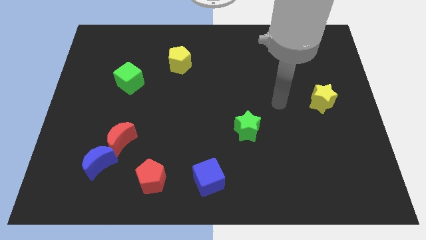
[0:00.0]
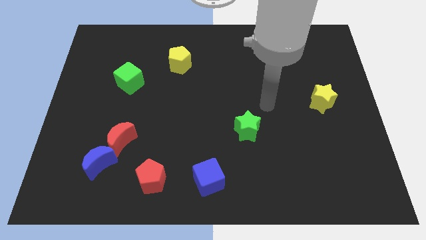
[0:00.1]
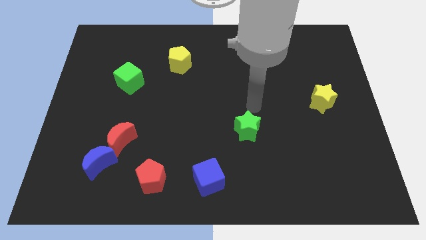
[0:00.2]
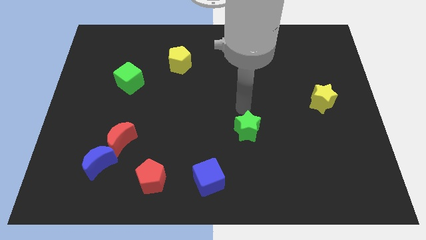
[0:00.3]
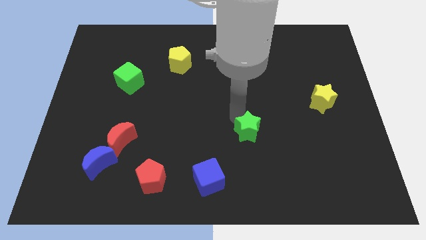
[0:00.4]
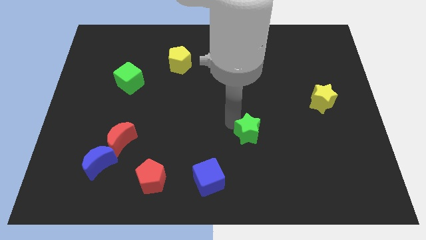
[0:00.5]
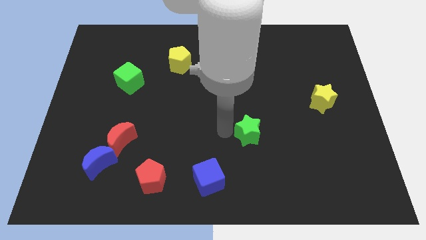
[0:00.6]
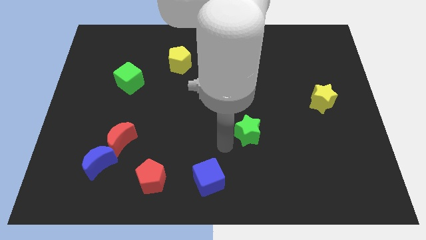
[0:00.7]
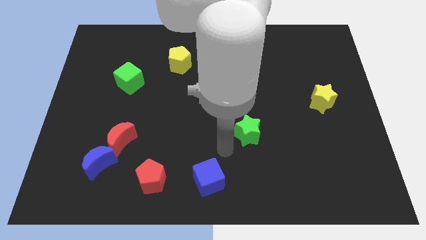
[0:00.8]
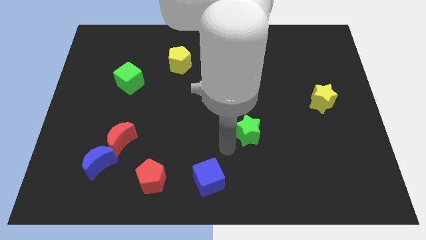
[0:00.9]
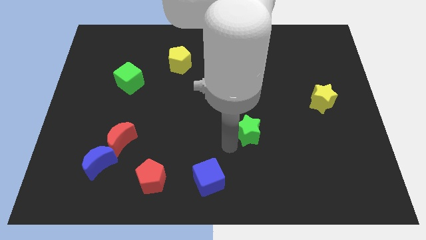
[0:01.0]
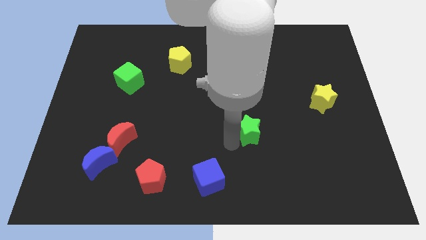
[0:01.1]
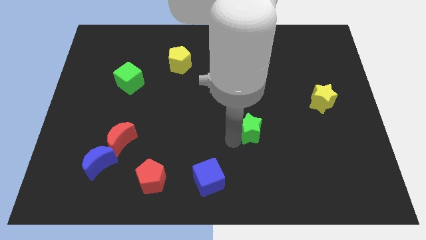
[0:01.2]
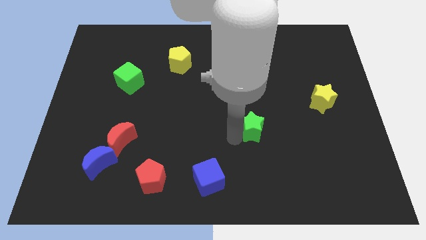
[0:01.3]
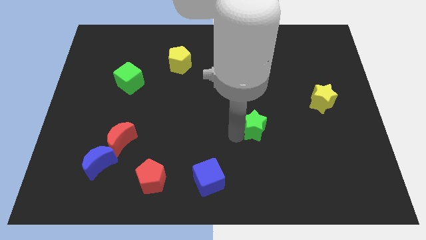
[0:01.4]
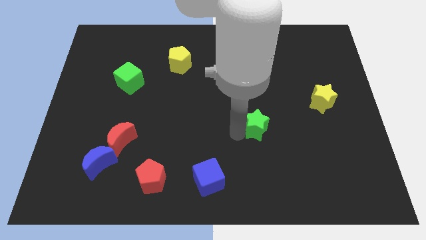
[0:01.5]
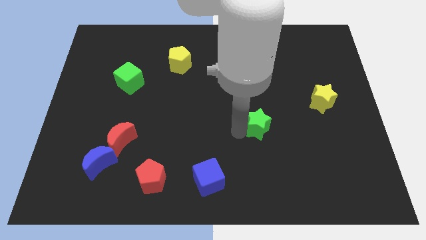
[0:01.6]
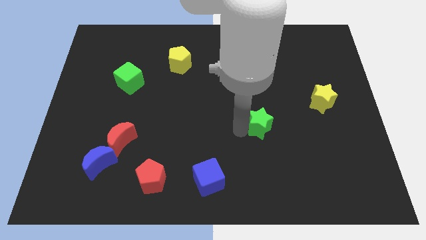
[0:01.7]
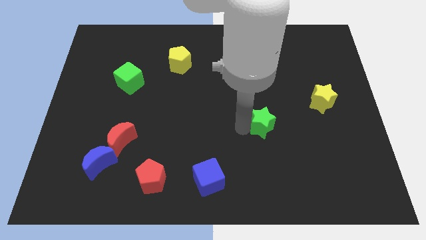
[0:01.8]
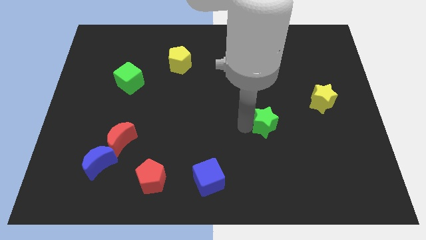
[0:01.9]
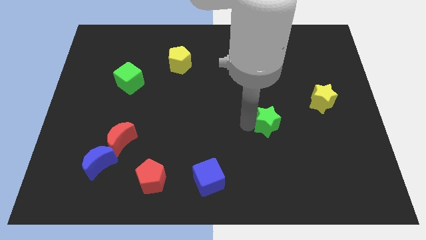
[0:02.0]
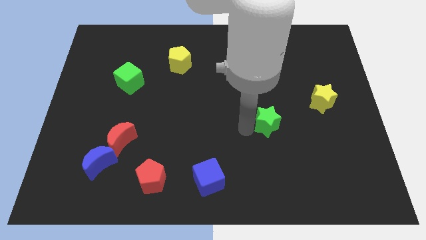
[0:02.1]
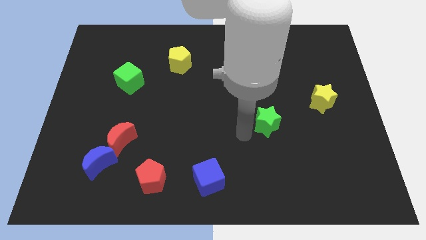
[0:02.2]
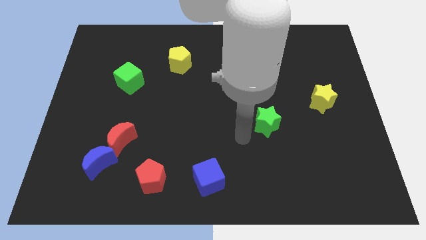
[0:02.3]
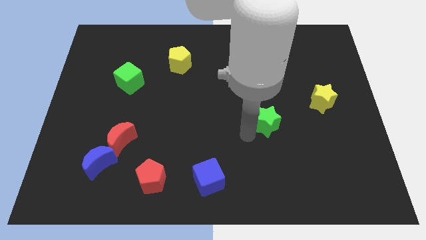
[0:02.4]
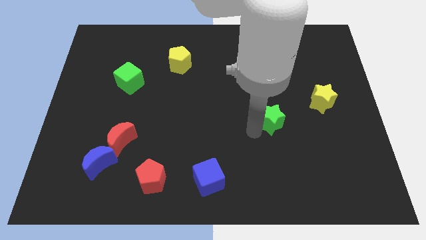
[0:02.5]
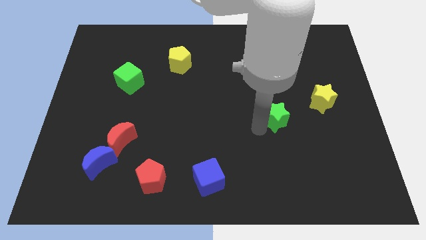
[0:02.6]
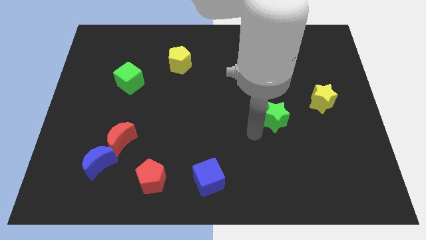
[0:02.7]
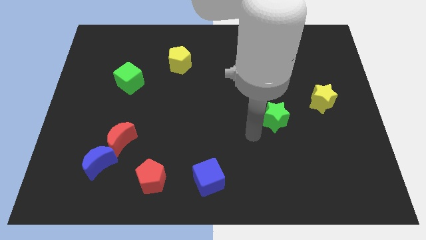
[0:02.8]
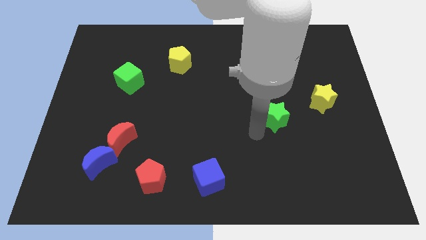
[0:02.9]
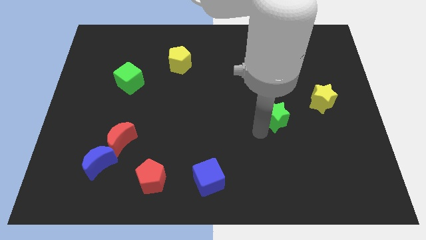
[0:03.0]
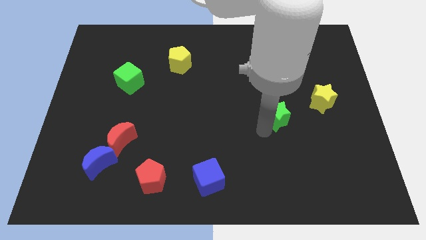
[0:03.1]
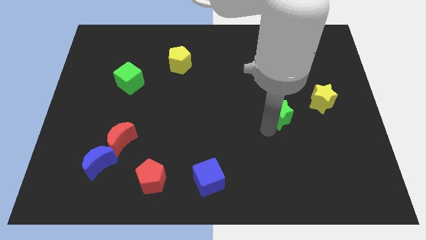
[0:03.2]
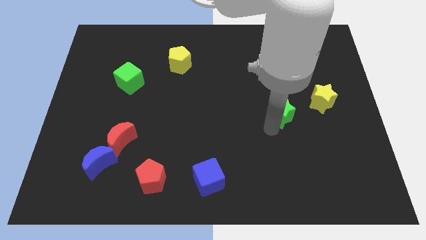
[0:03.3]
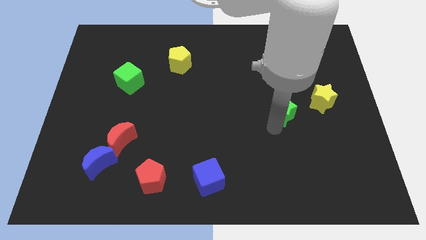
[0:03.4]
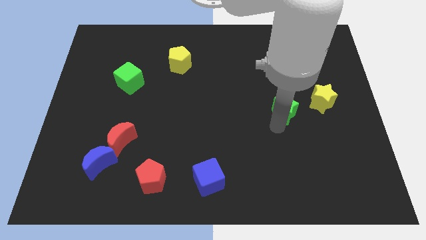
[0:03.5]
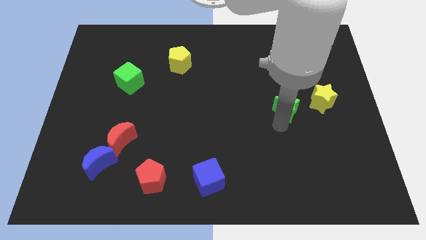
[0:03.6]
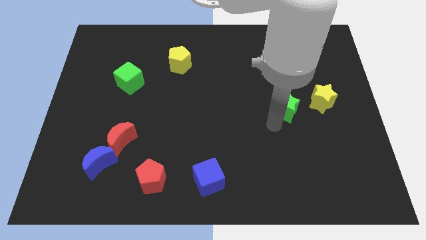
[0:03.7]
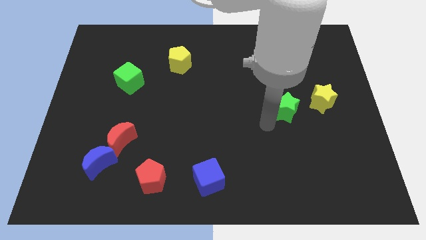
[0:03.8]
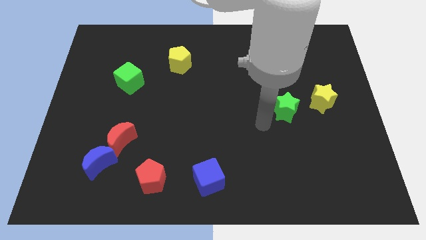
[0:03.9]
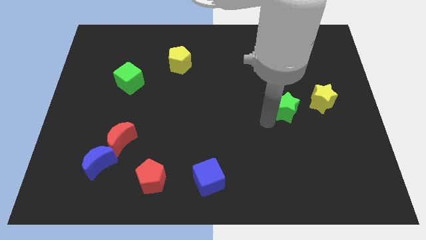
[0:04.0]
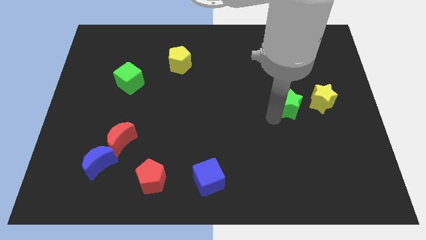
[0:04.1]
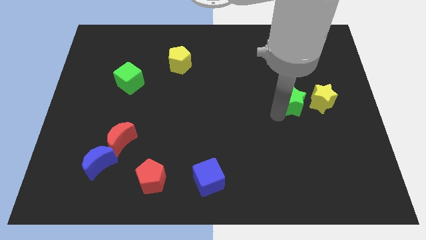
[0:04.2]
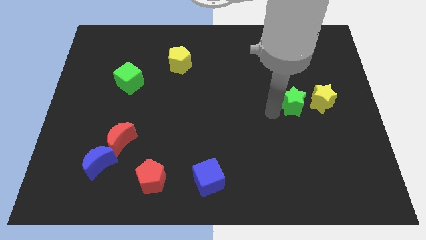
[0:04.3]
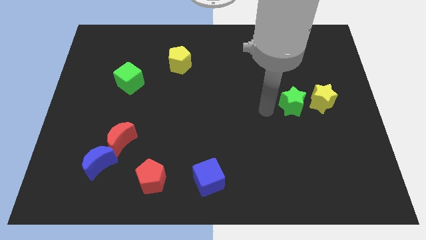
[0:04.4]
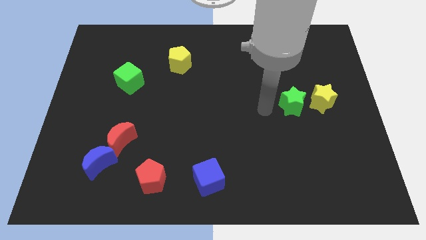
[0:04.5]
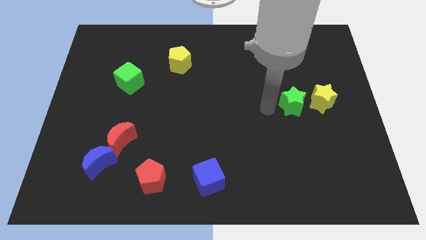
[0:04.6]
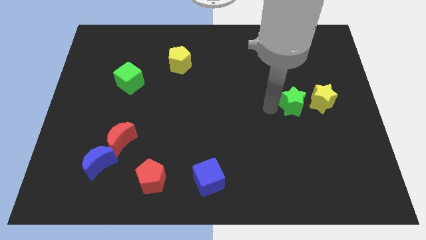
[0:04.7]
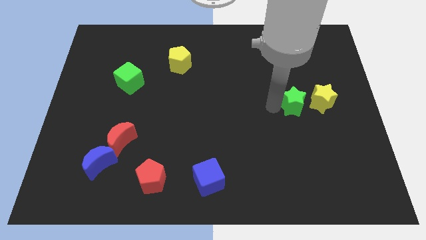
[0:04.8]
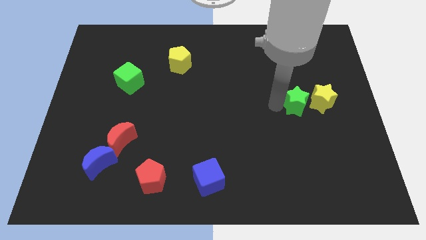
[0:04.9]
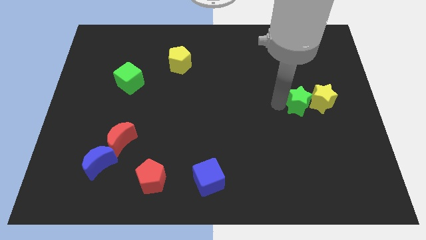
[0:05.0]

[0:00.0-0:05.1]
push the green star next to the yellow star

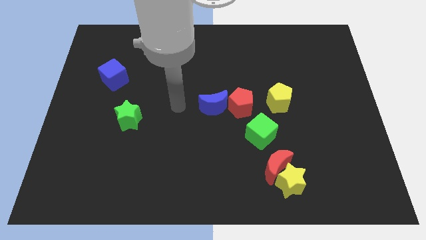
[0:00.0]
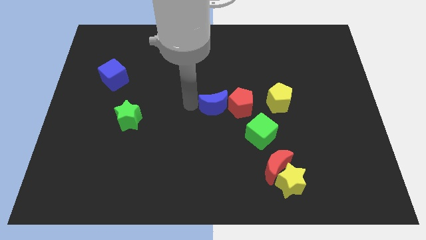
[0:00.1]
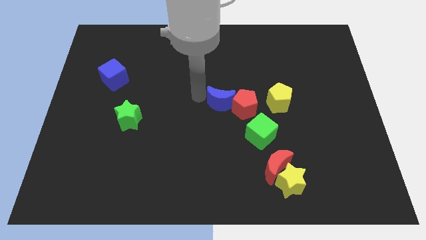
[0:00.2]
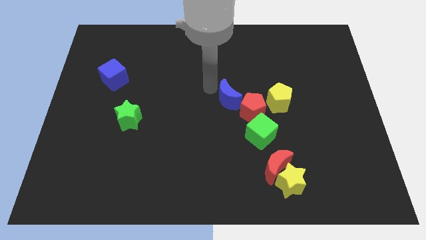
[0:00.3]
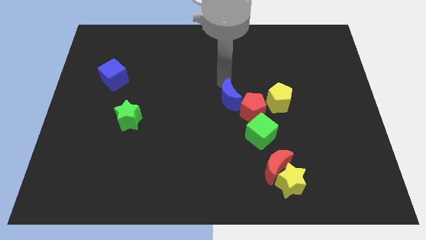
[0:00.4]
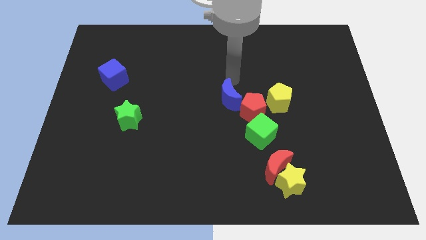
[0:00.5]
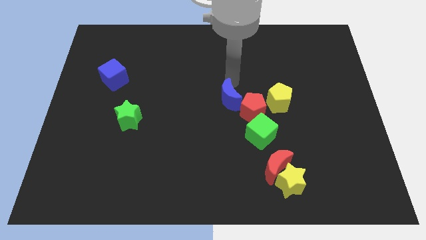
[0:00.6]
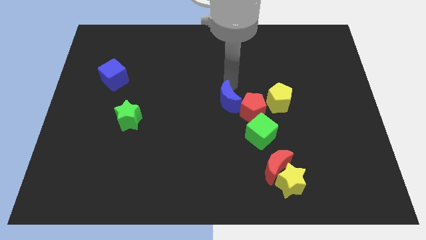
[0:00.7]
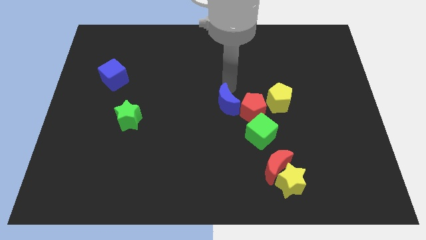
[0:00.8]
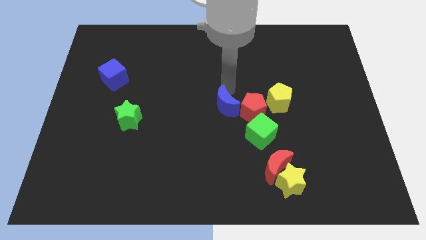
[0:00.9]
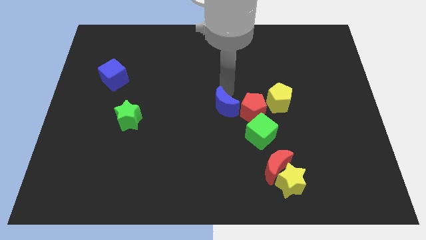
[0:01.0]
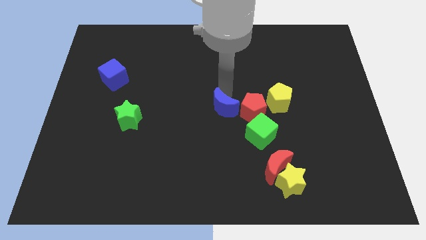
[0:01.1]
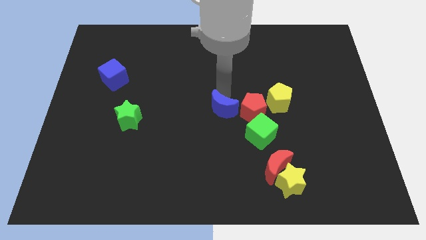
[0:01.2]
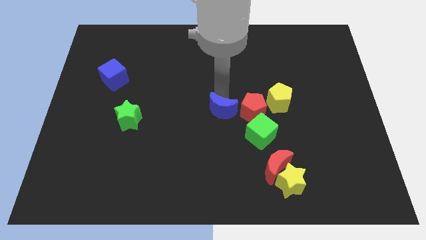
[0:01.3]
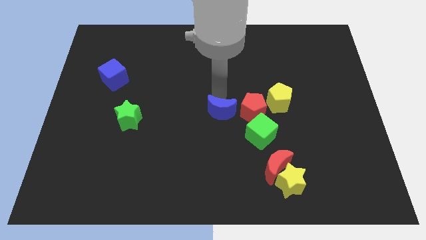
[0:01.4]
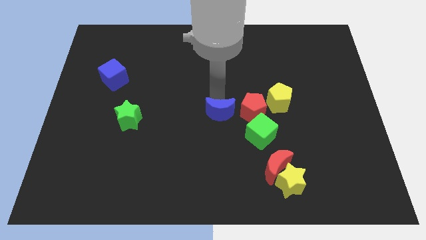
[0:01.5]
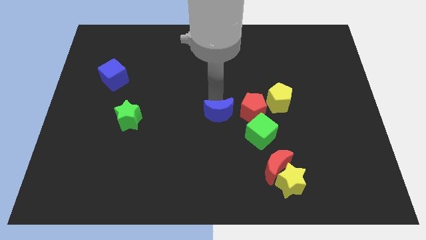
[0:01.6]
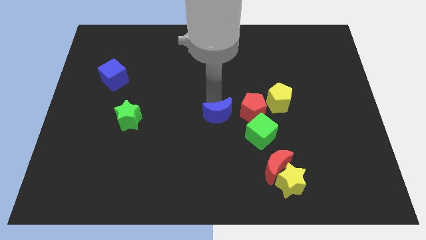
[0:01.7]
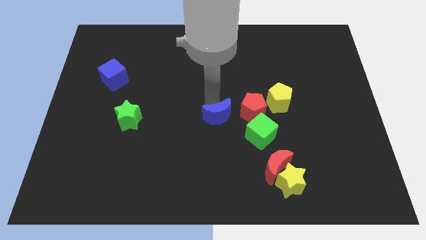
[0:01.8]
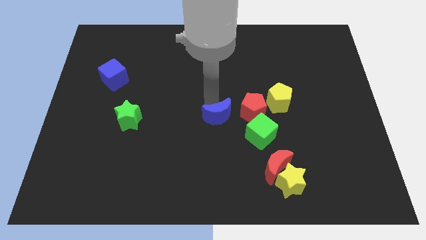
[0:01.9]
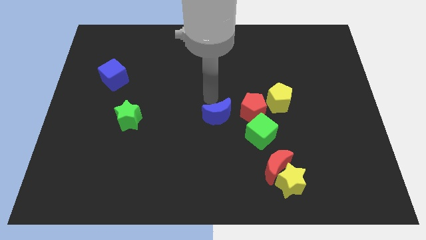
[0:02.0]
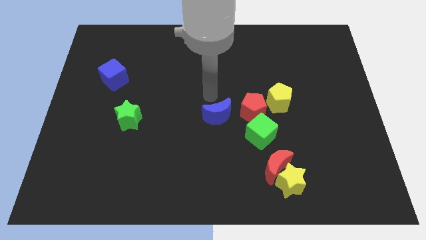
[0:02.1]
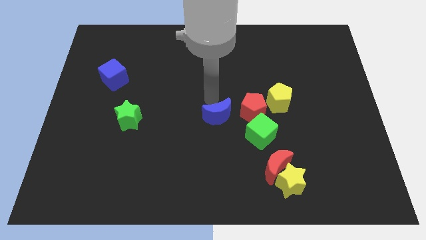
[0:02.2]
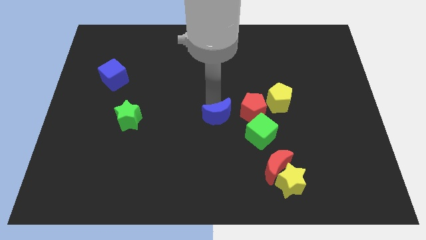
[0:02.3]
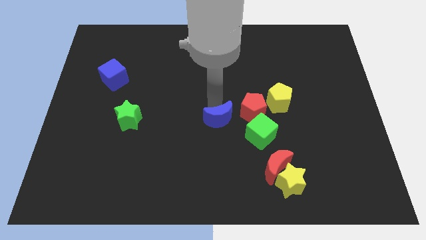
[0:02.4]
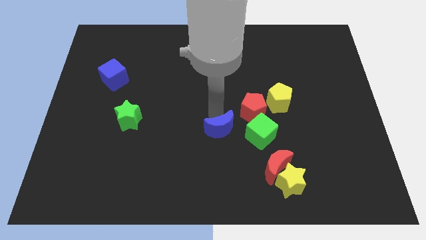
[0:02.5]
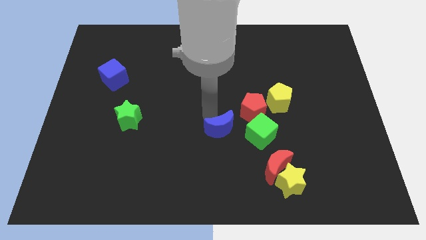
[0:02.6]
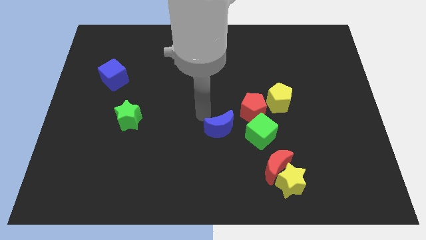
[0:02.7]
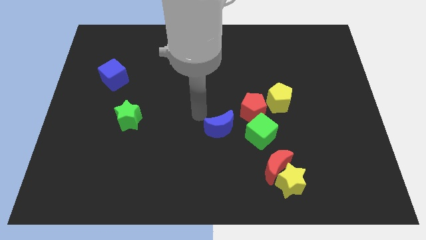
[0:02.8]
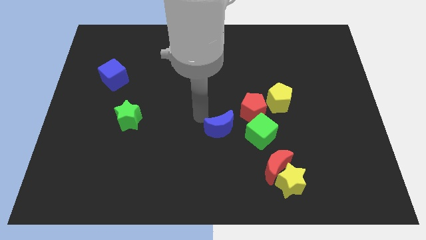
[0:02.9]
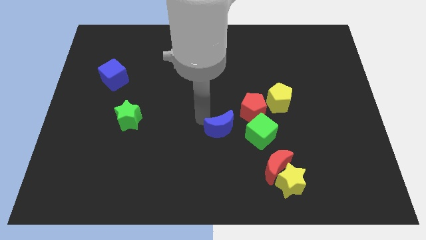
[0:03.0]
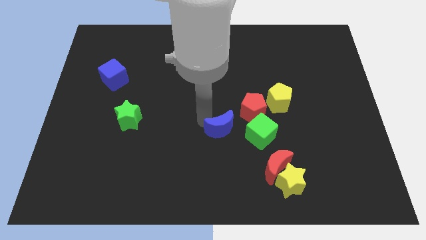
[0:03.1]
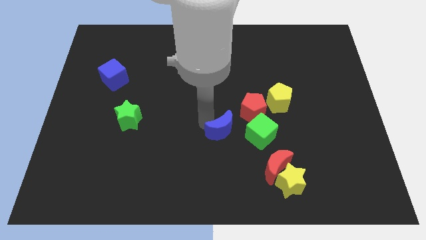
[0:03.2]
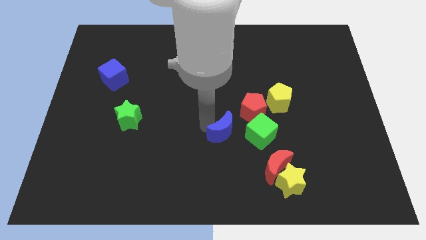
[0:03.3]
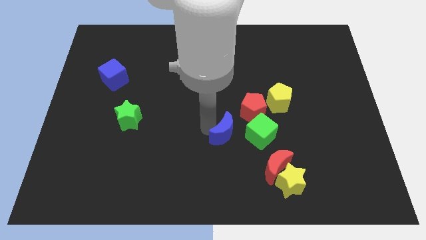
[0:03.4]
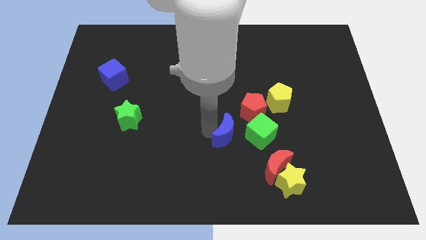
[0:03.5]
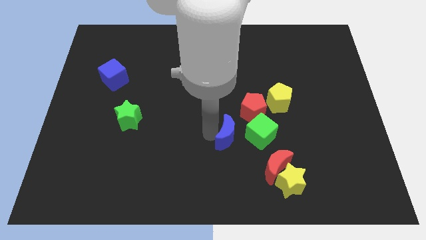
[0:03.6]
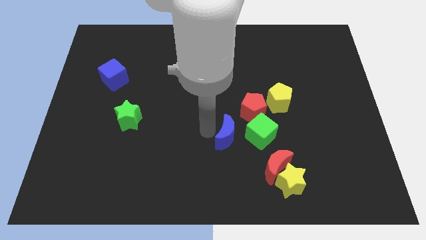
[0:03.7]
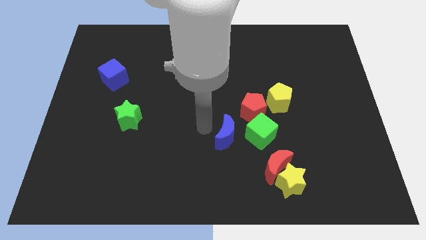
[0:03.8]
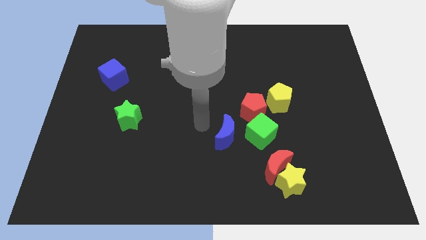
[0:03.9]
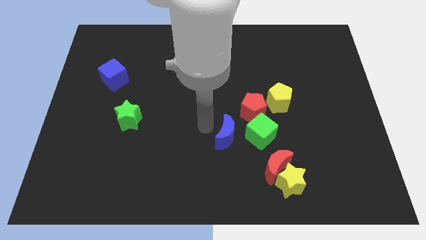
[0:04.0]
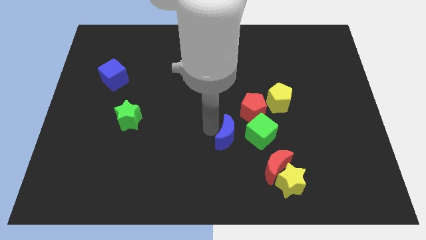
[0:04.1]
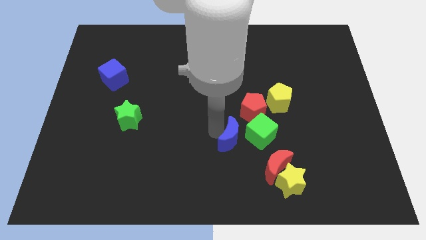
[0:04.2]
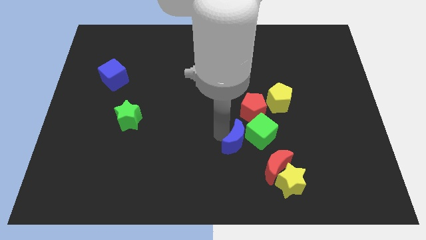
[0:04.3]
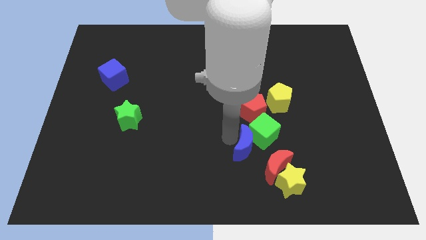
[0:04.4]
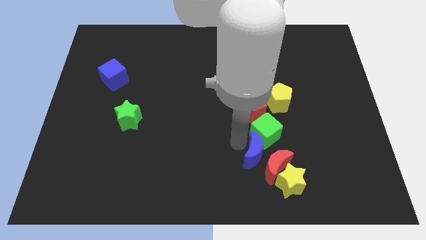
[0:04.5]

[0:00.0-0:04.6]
slide the blue moon towards the red moon
